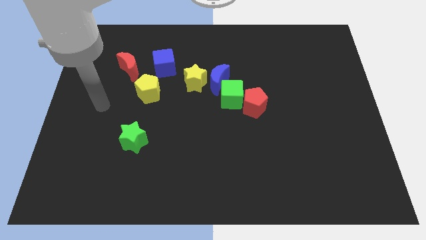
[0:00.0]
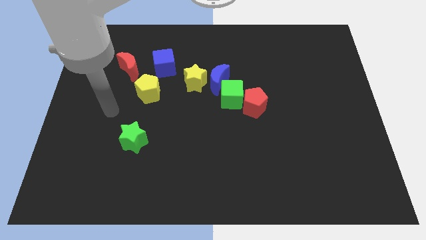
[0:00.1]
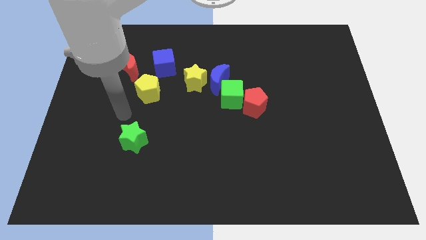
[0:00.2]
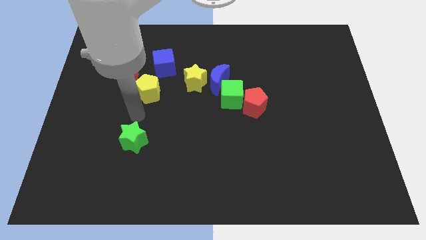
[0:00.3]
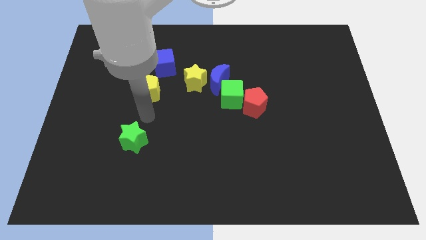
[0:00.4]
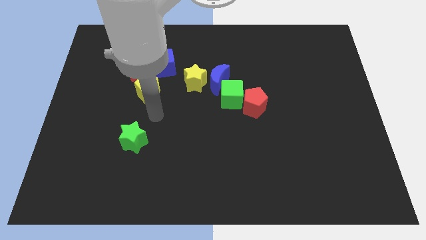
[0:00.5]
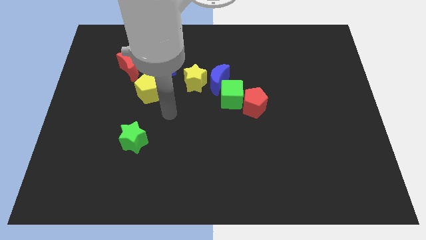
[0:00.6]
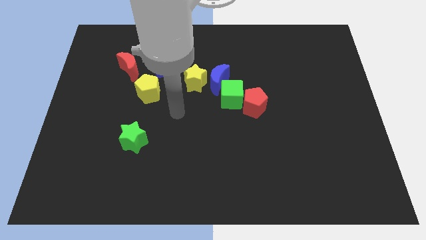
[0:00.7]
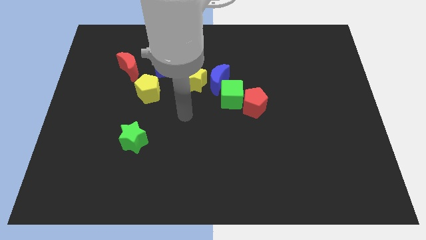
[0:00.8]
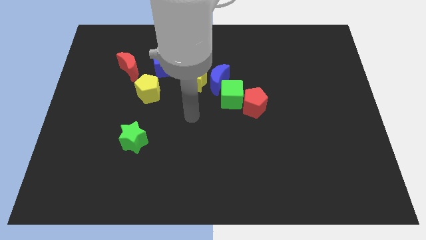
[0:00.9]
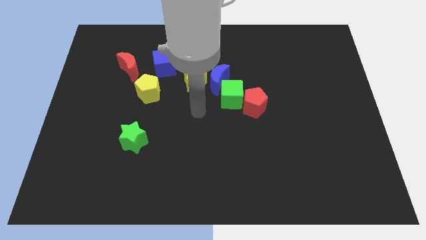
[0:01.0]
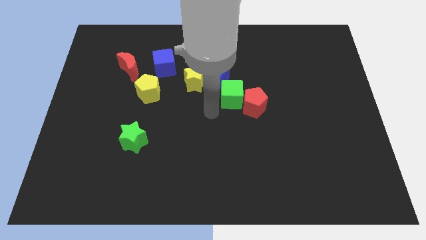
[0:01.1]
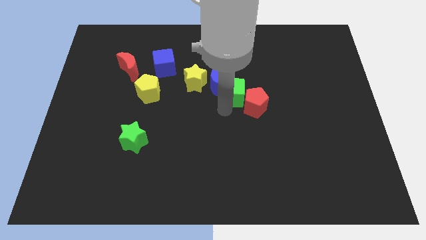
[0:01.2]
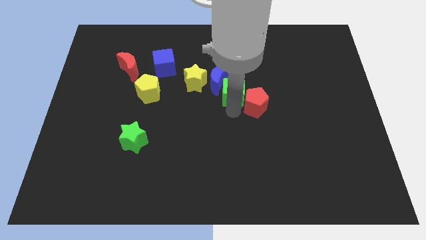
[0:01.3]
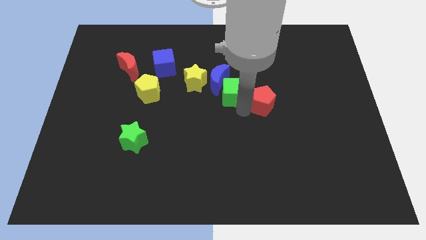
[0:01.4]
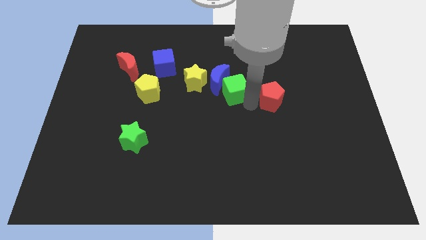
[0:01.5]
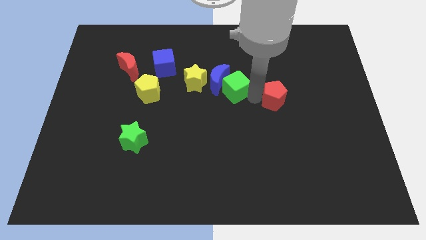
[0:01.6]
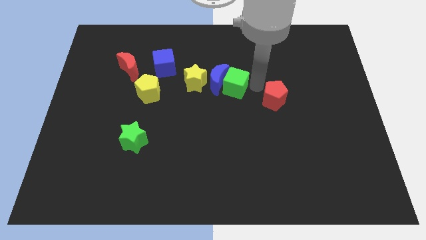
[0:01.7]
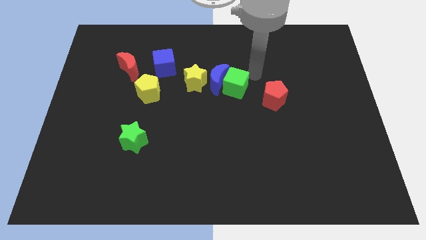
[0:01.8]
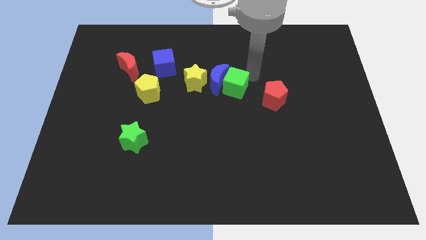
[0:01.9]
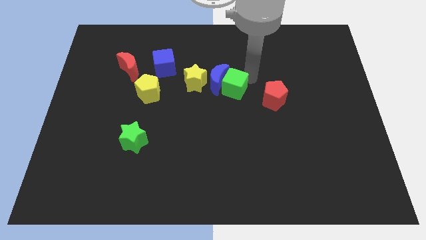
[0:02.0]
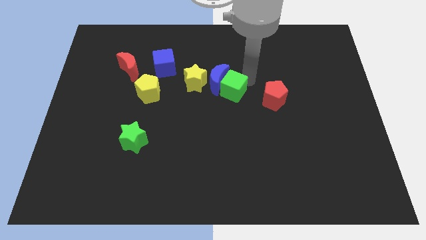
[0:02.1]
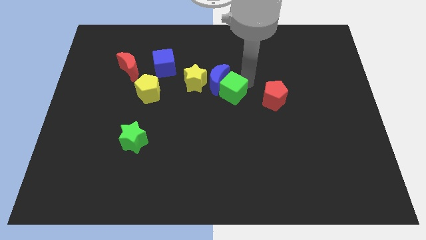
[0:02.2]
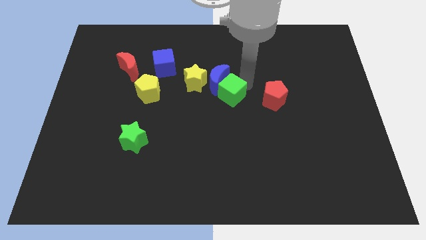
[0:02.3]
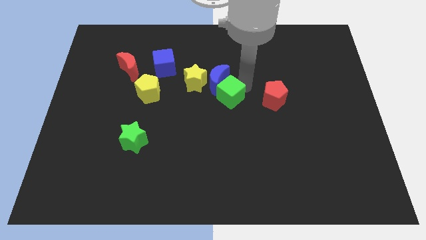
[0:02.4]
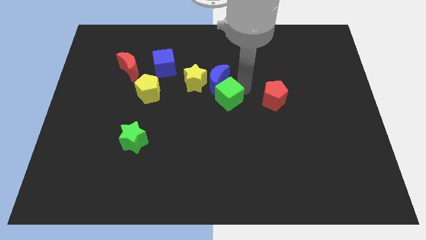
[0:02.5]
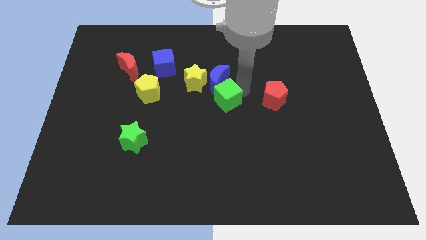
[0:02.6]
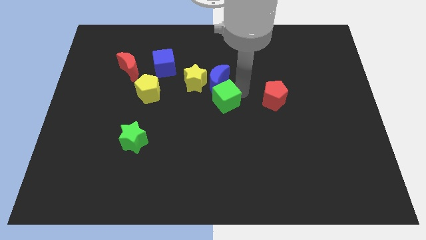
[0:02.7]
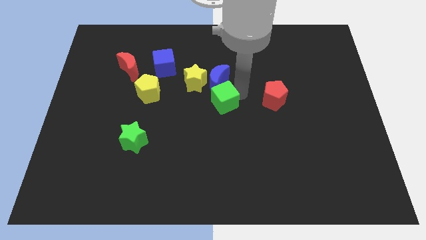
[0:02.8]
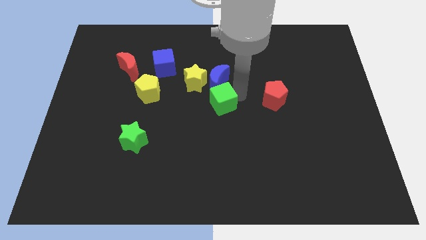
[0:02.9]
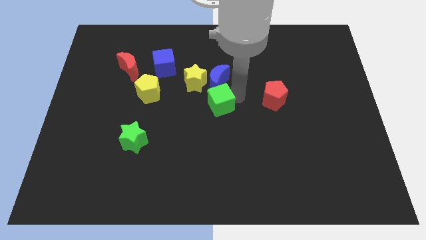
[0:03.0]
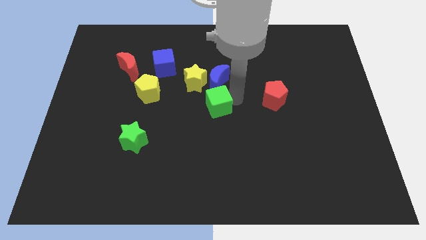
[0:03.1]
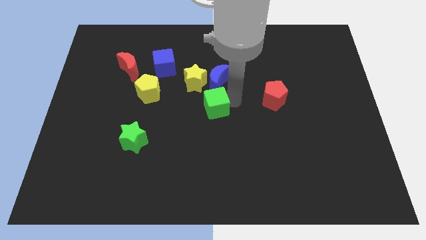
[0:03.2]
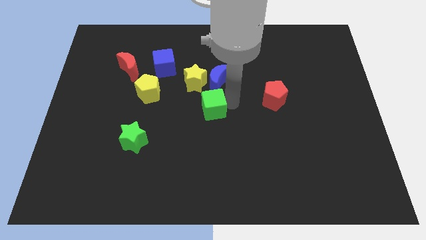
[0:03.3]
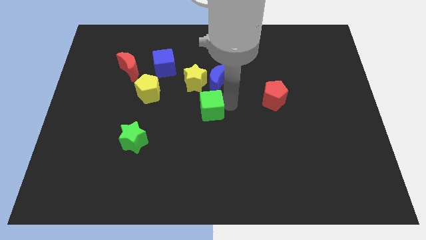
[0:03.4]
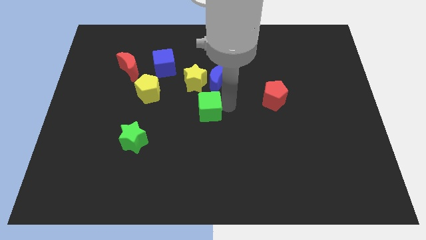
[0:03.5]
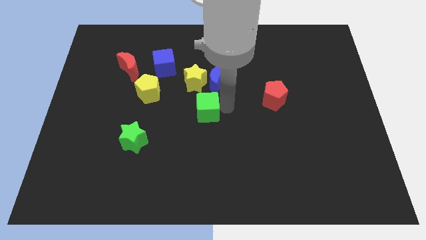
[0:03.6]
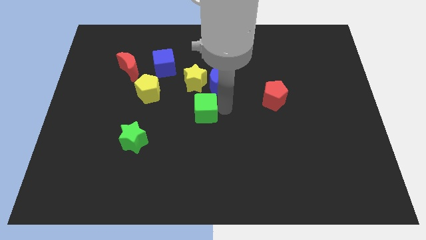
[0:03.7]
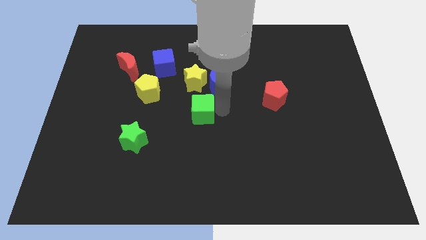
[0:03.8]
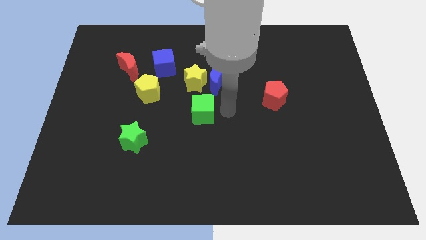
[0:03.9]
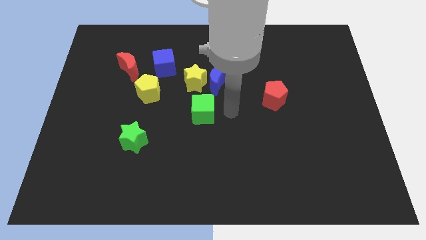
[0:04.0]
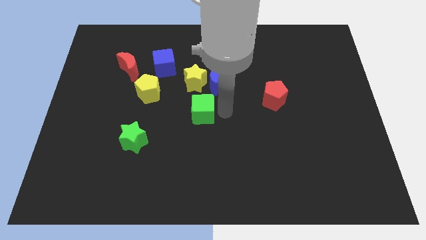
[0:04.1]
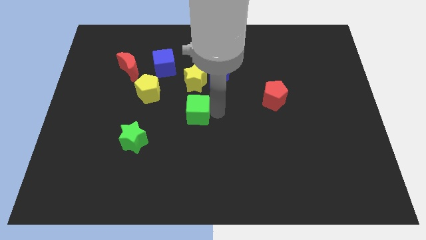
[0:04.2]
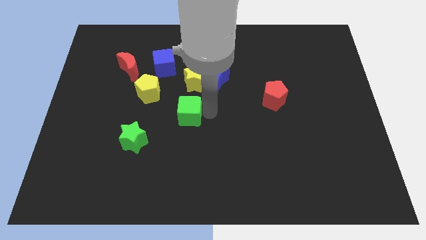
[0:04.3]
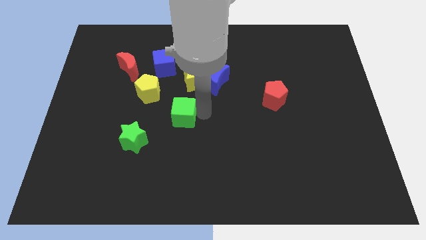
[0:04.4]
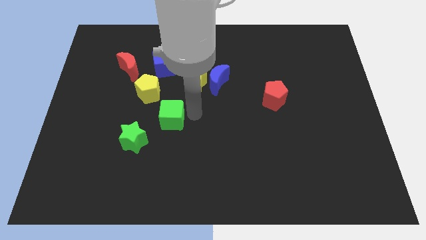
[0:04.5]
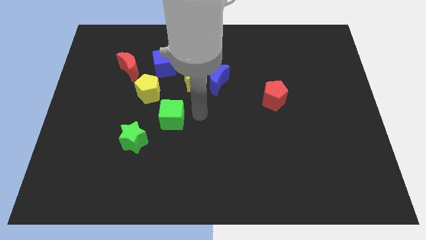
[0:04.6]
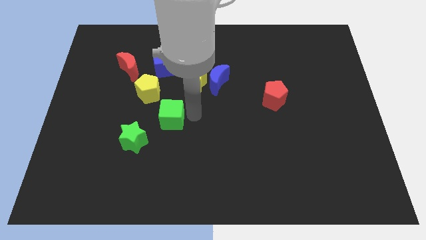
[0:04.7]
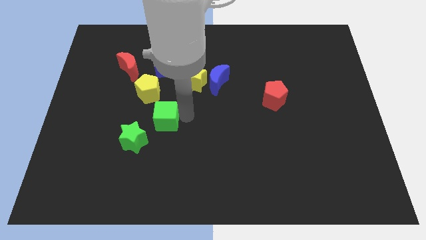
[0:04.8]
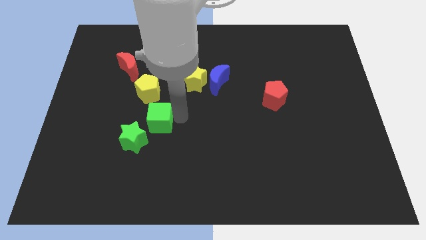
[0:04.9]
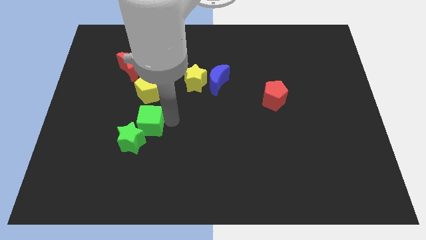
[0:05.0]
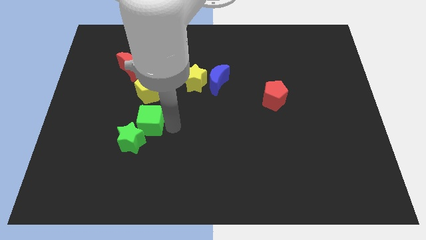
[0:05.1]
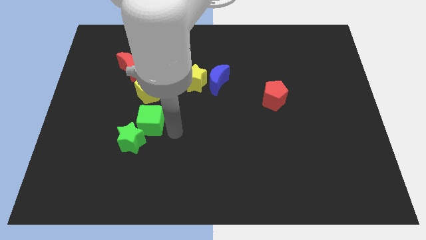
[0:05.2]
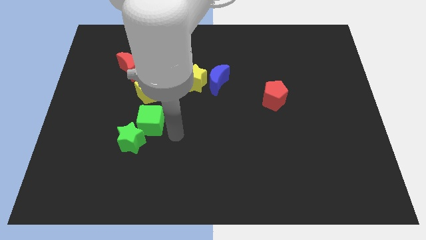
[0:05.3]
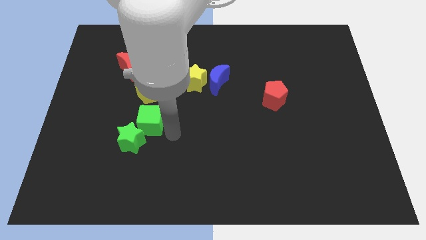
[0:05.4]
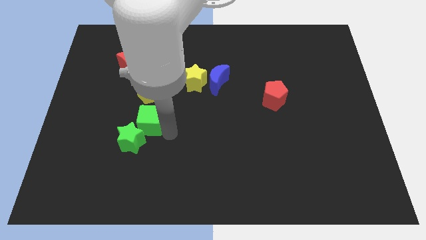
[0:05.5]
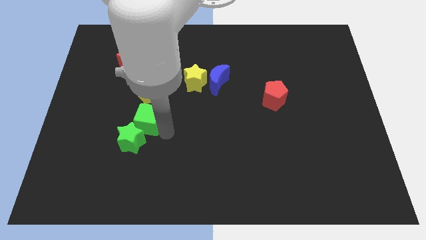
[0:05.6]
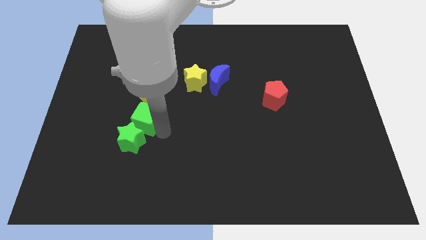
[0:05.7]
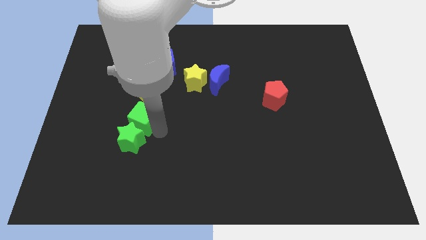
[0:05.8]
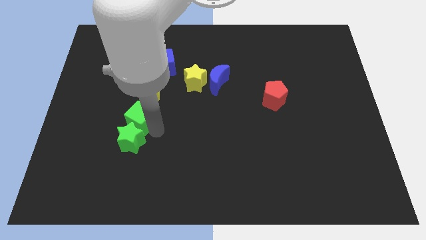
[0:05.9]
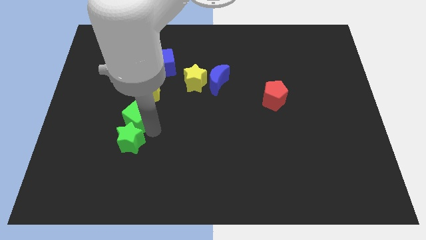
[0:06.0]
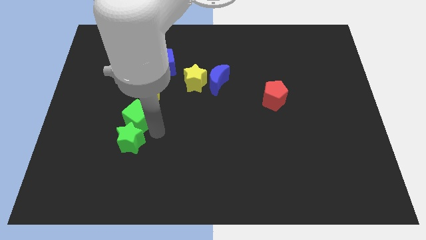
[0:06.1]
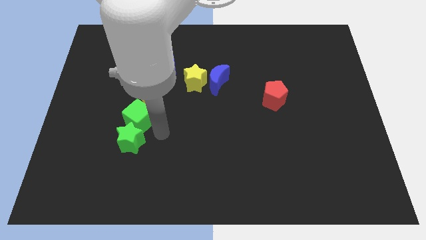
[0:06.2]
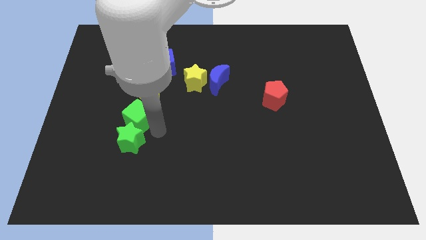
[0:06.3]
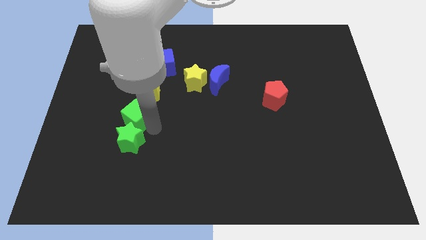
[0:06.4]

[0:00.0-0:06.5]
move the green cube to the left

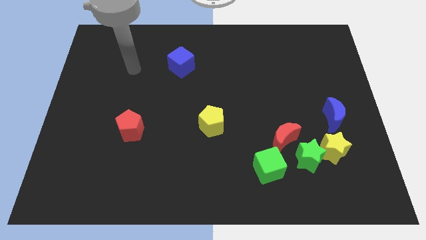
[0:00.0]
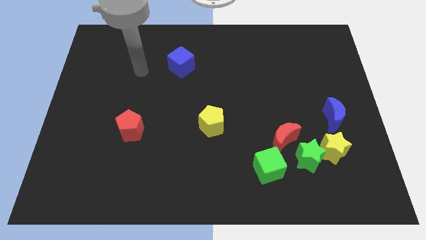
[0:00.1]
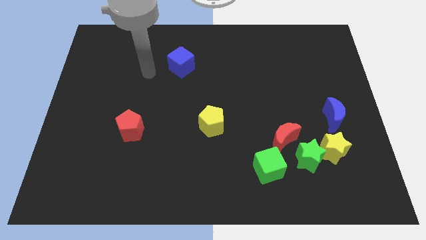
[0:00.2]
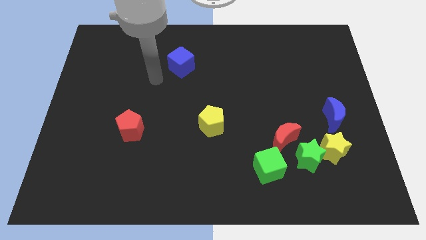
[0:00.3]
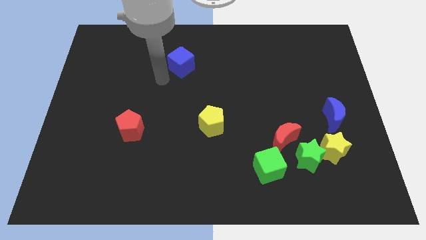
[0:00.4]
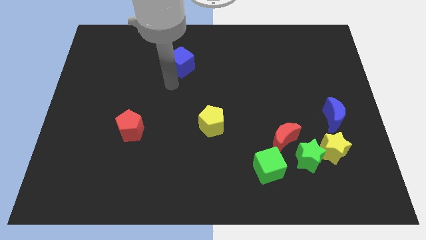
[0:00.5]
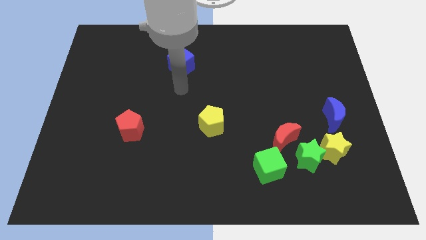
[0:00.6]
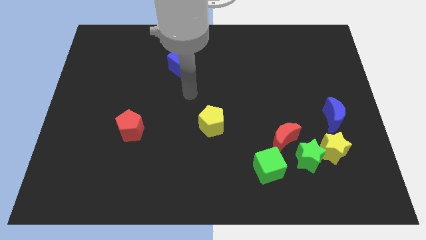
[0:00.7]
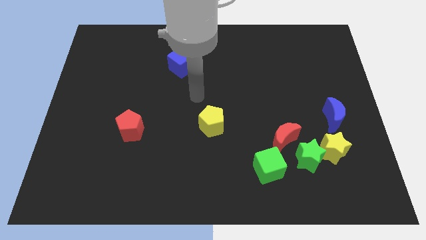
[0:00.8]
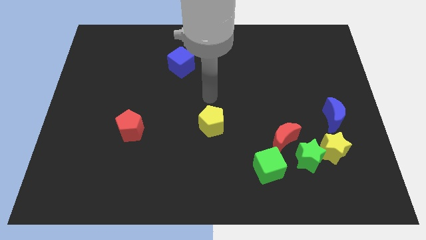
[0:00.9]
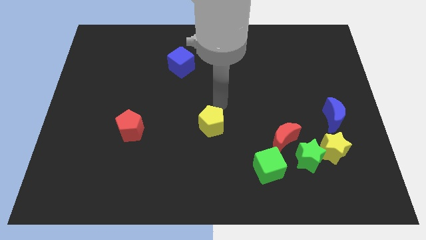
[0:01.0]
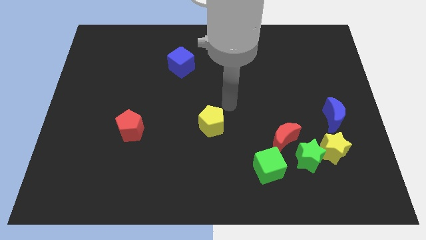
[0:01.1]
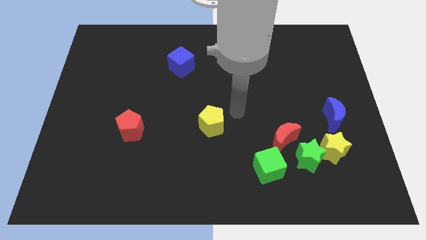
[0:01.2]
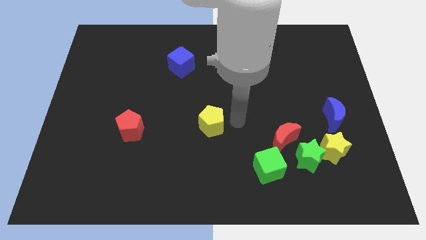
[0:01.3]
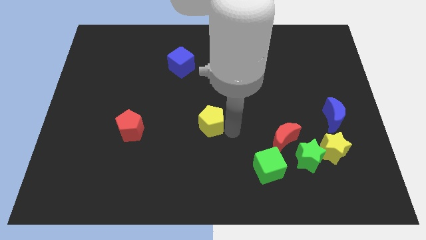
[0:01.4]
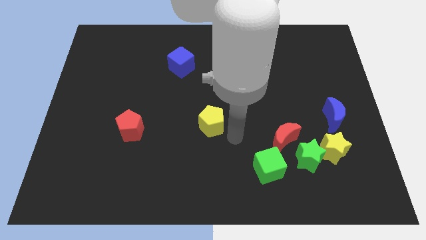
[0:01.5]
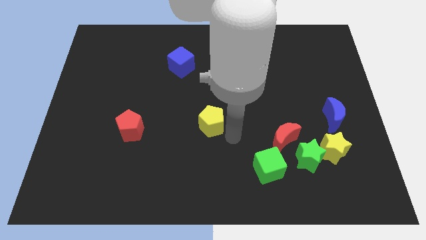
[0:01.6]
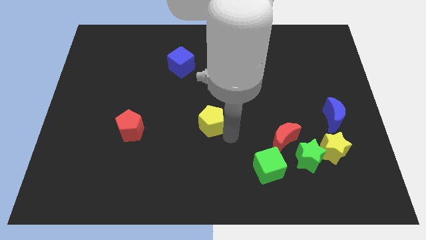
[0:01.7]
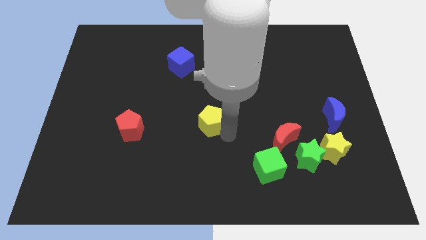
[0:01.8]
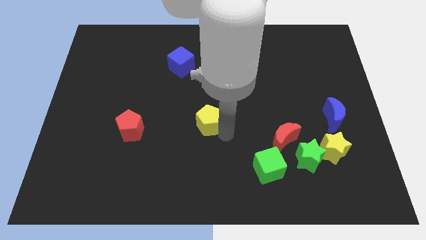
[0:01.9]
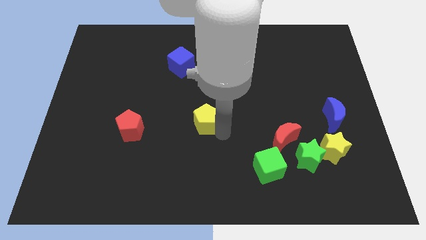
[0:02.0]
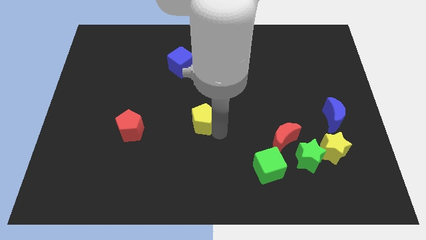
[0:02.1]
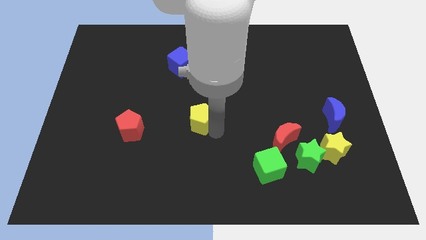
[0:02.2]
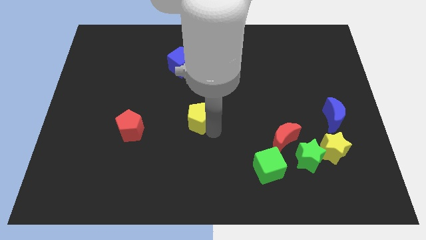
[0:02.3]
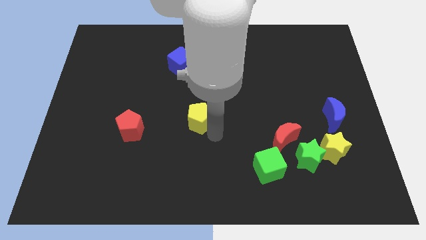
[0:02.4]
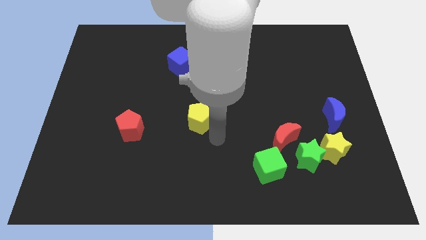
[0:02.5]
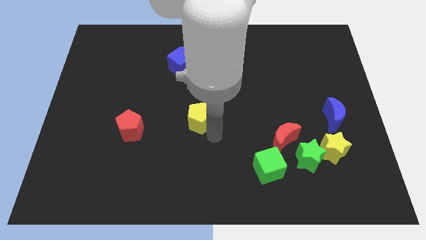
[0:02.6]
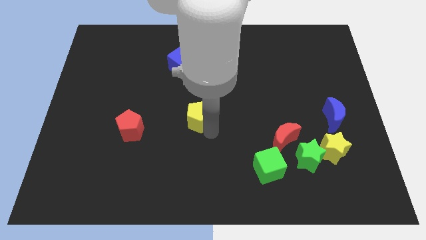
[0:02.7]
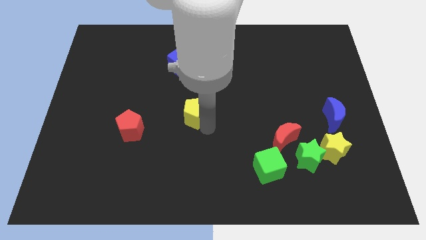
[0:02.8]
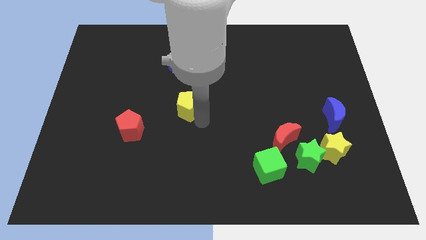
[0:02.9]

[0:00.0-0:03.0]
move the yellow pentagon up and then to the left a little
